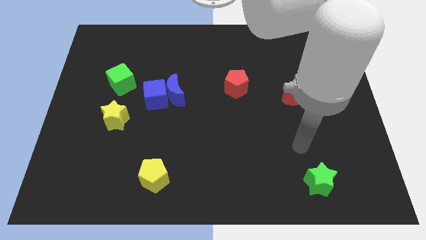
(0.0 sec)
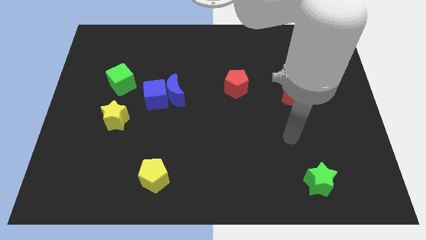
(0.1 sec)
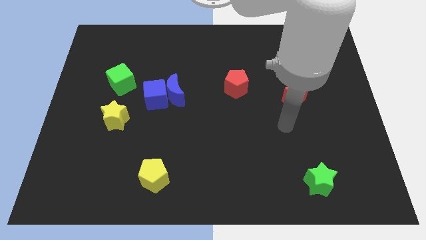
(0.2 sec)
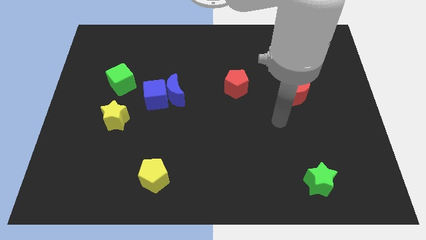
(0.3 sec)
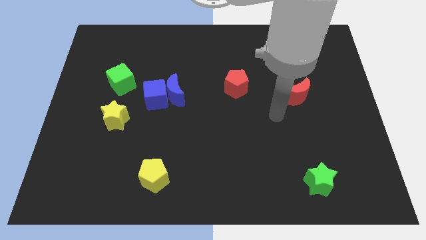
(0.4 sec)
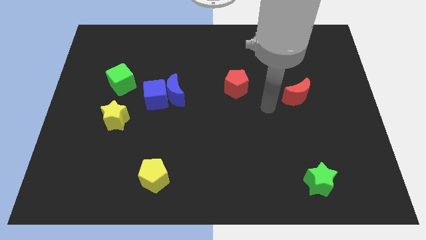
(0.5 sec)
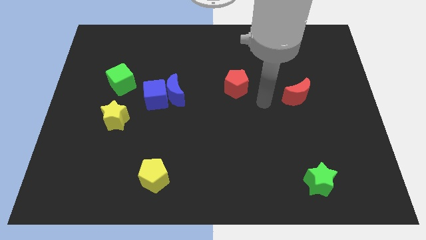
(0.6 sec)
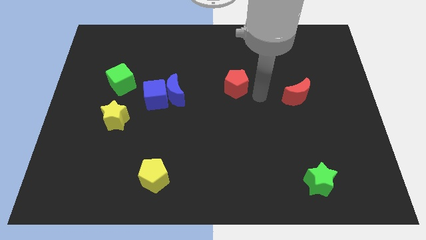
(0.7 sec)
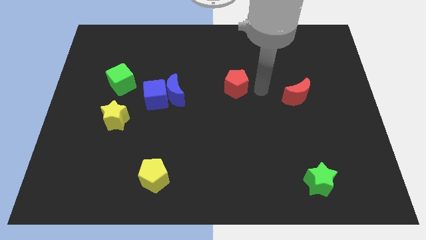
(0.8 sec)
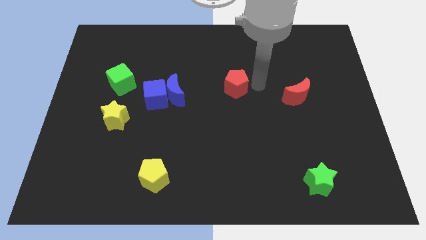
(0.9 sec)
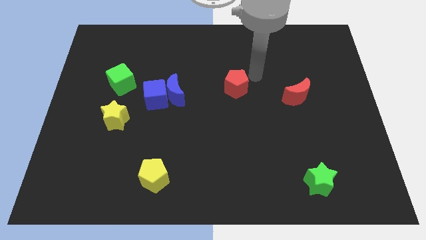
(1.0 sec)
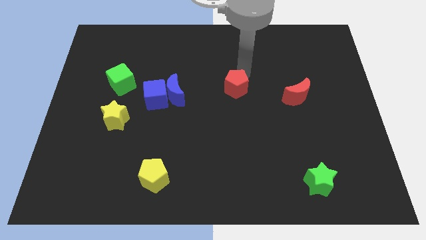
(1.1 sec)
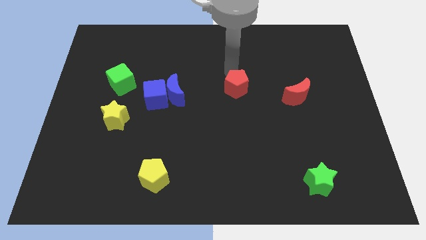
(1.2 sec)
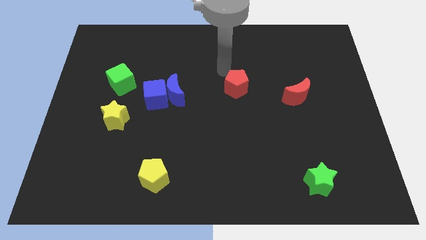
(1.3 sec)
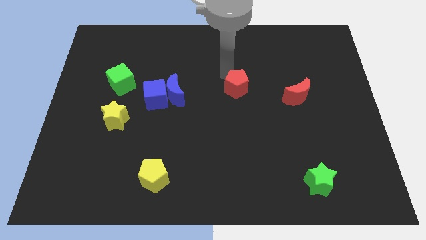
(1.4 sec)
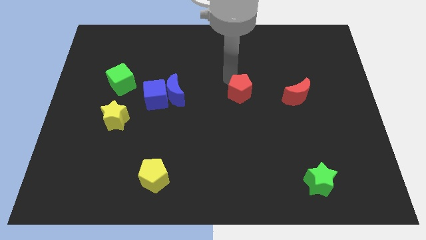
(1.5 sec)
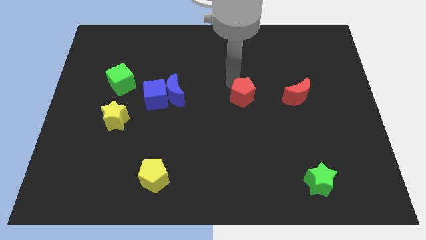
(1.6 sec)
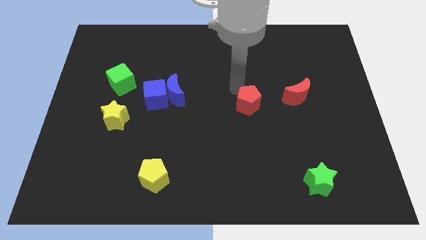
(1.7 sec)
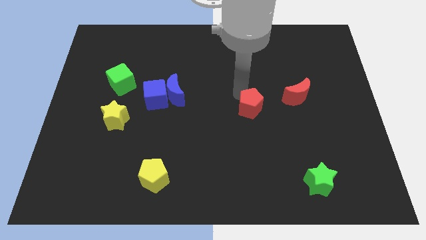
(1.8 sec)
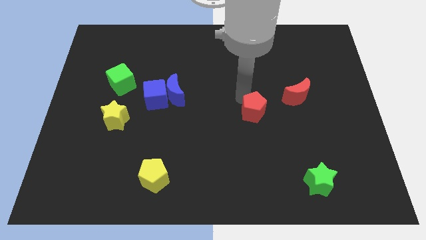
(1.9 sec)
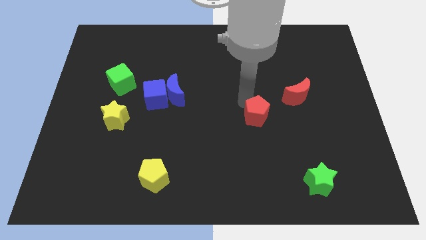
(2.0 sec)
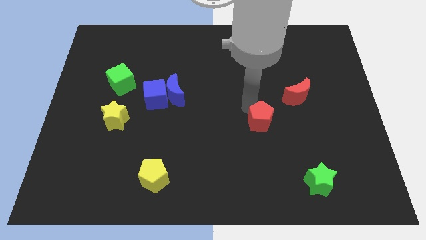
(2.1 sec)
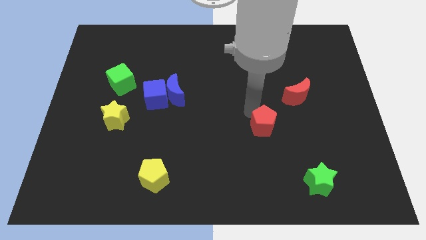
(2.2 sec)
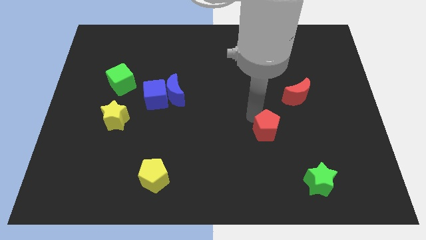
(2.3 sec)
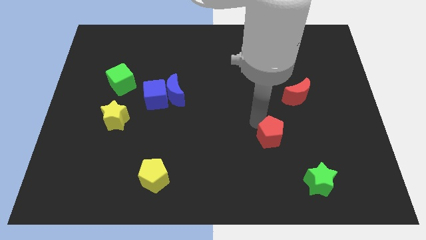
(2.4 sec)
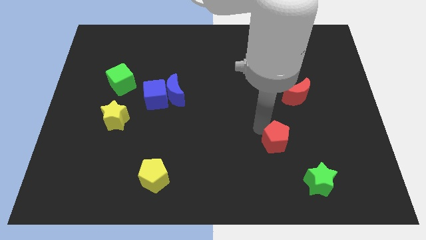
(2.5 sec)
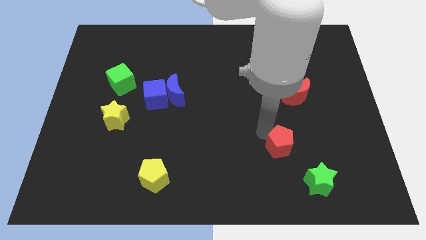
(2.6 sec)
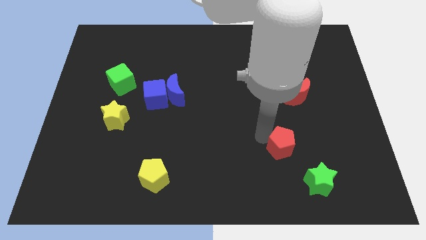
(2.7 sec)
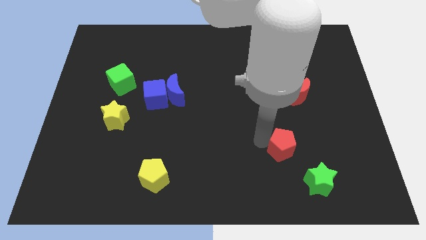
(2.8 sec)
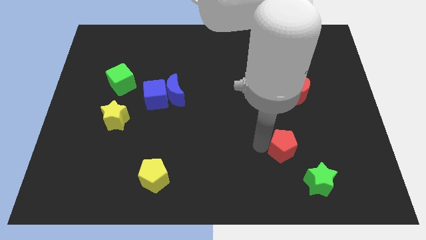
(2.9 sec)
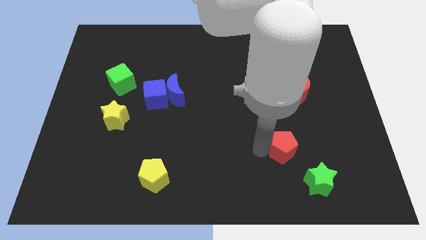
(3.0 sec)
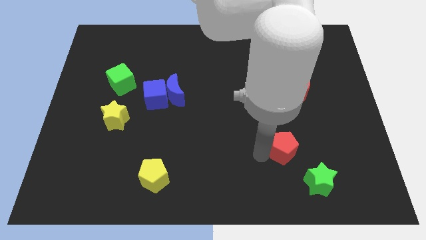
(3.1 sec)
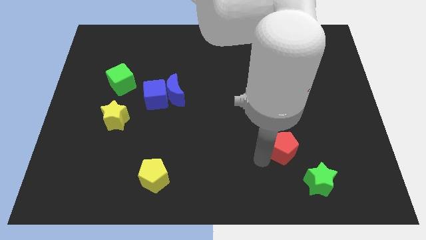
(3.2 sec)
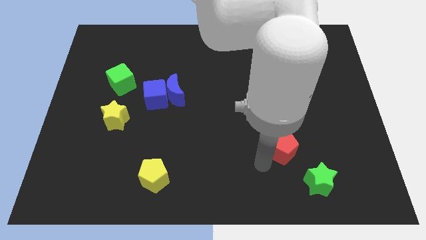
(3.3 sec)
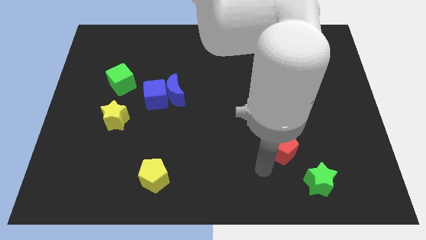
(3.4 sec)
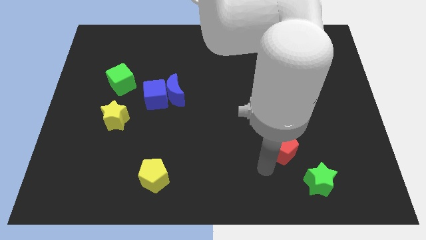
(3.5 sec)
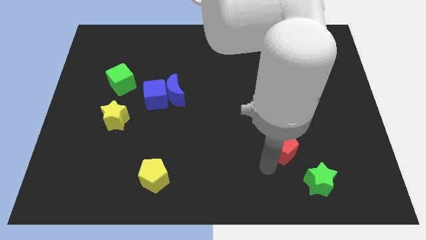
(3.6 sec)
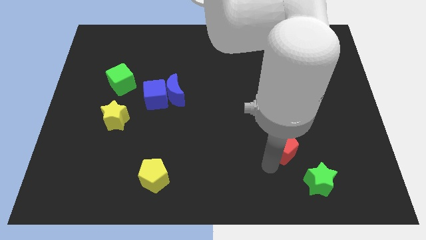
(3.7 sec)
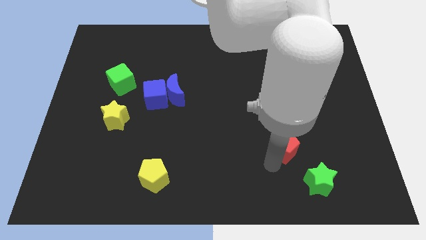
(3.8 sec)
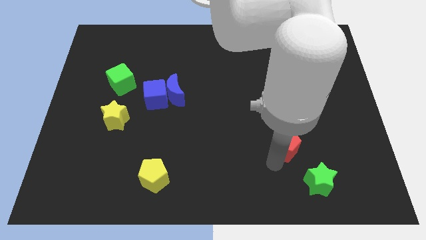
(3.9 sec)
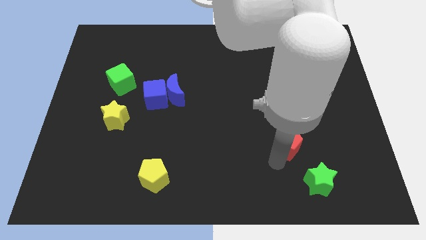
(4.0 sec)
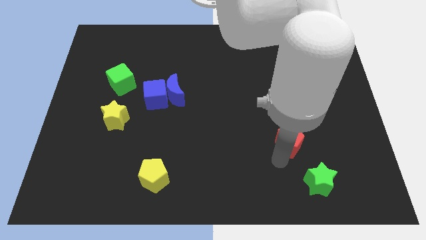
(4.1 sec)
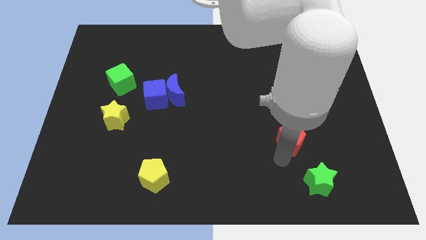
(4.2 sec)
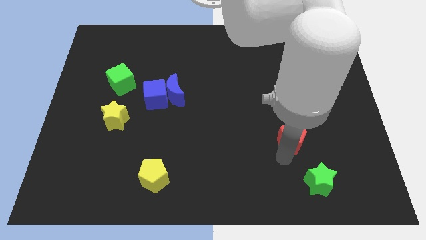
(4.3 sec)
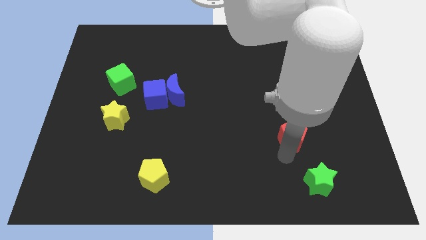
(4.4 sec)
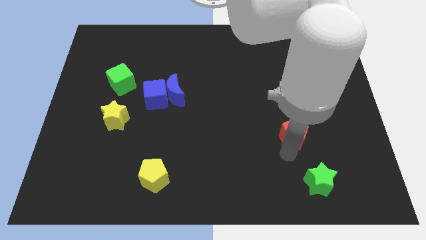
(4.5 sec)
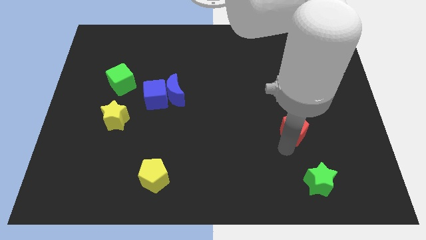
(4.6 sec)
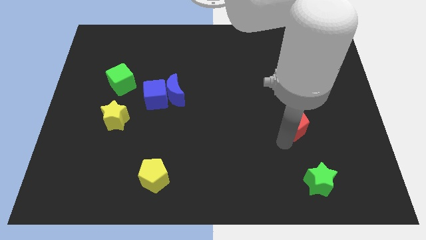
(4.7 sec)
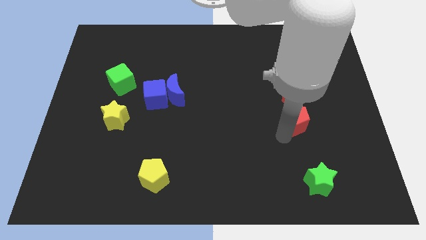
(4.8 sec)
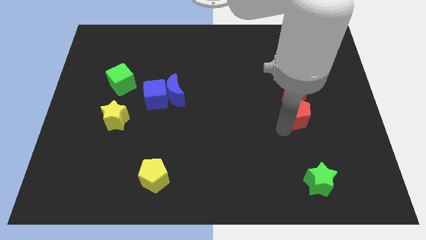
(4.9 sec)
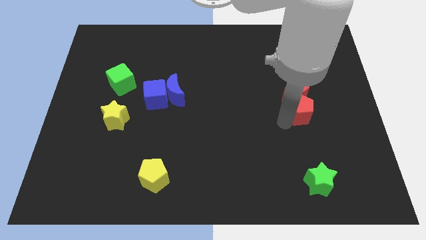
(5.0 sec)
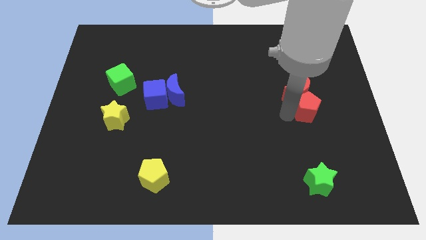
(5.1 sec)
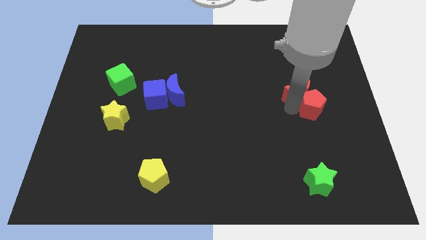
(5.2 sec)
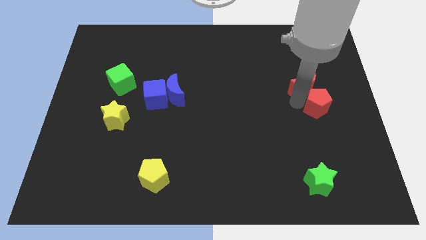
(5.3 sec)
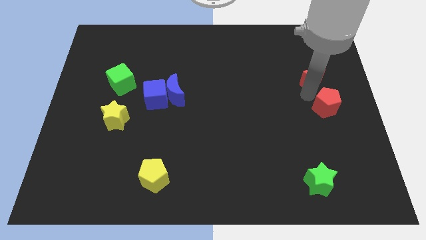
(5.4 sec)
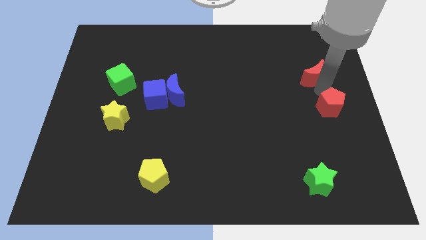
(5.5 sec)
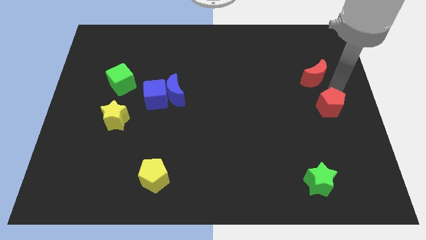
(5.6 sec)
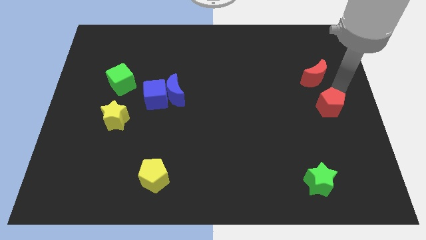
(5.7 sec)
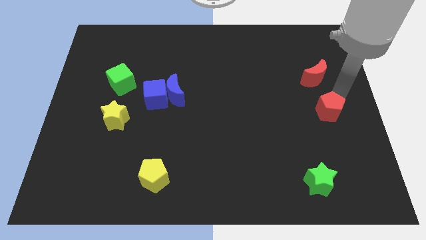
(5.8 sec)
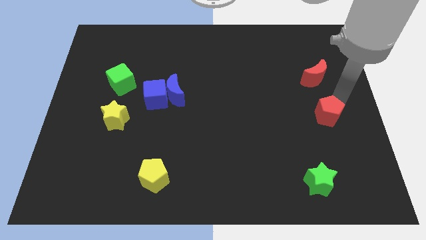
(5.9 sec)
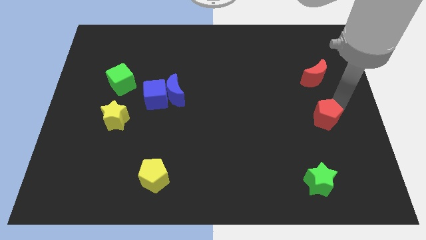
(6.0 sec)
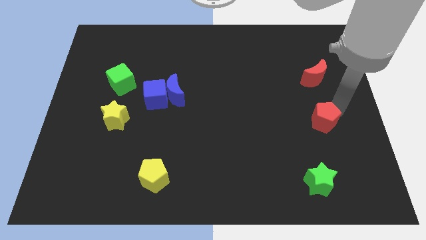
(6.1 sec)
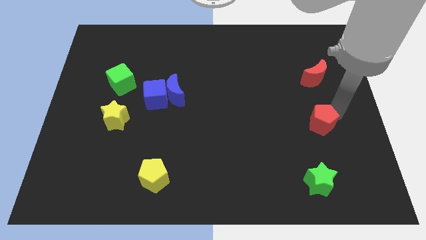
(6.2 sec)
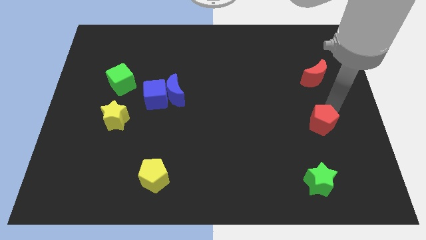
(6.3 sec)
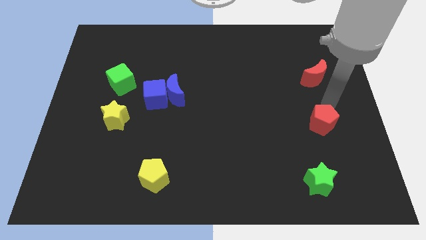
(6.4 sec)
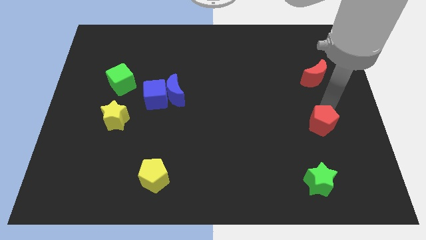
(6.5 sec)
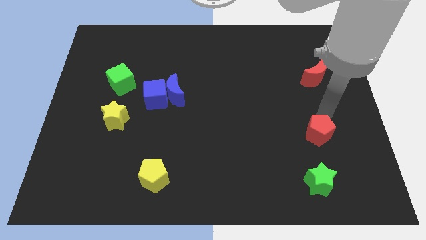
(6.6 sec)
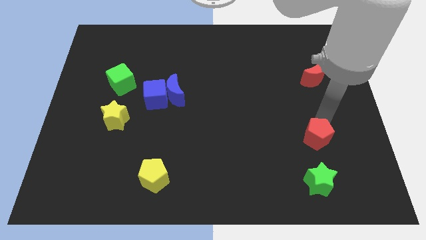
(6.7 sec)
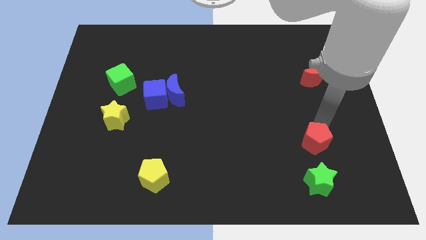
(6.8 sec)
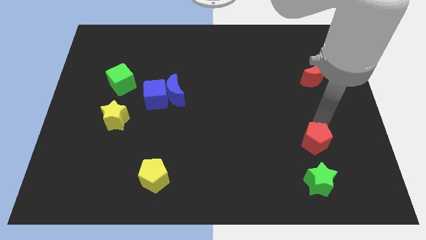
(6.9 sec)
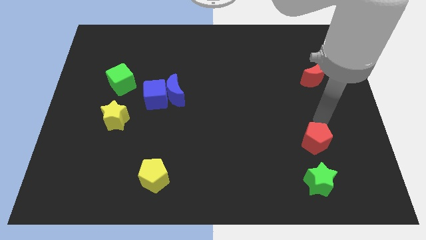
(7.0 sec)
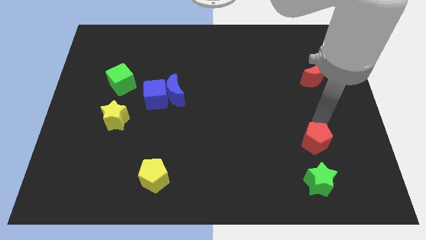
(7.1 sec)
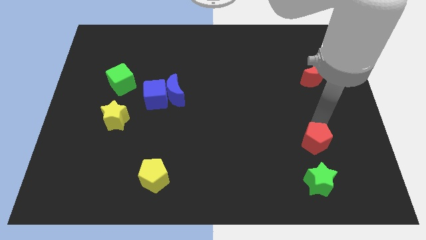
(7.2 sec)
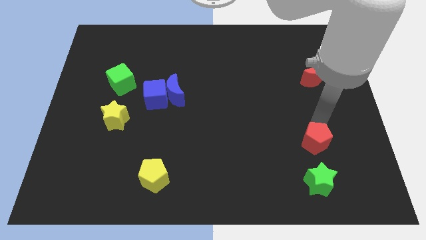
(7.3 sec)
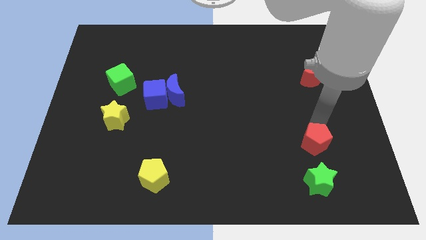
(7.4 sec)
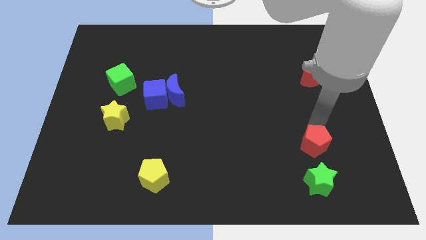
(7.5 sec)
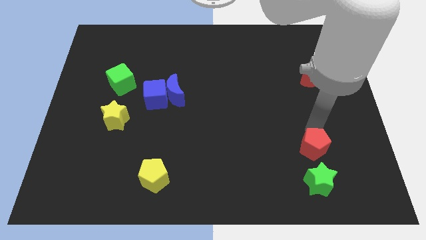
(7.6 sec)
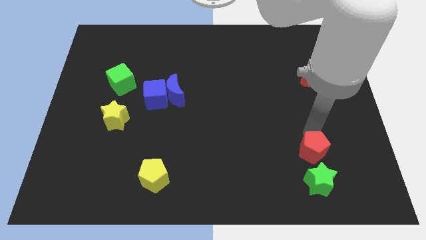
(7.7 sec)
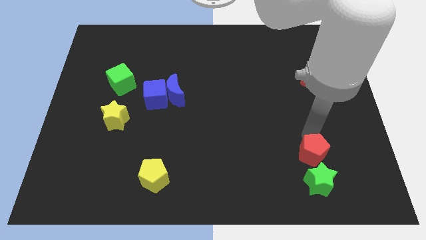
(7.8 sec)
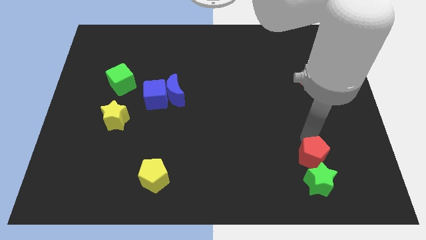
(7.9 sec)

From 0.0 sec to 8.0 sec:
move the red pentagon towards the green star

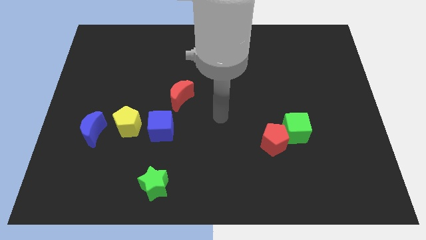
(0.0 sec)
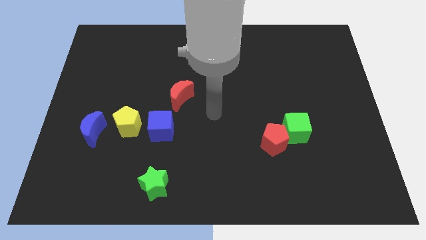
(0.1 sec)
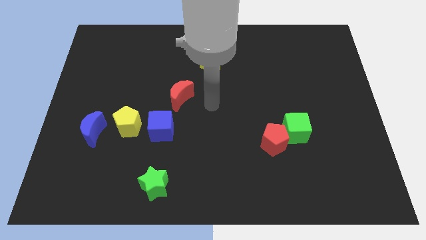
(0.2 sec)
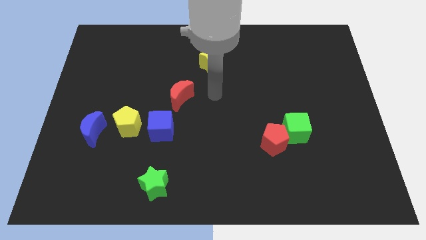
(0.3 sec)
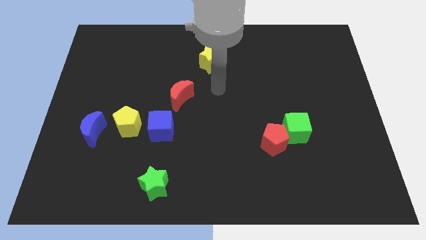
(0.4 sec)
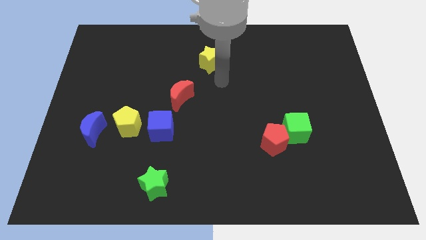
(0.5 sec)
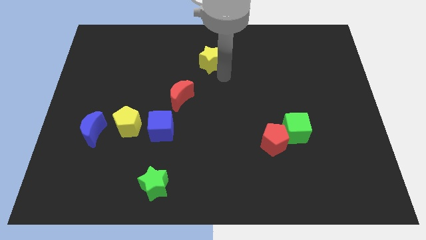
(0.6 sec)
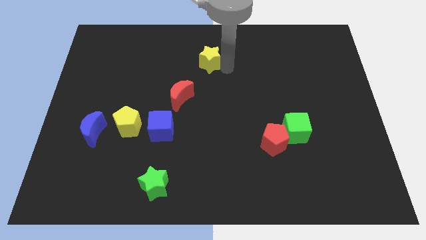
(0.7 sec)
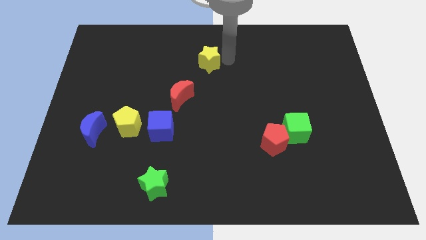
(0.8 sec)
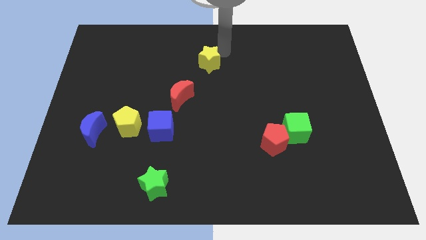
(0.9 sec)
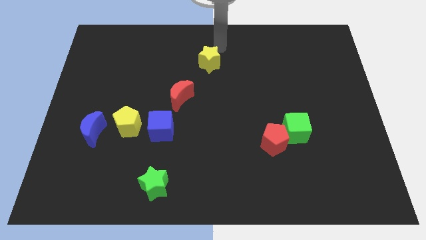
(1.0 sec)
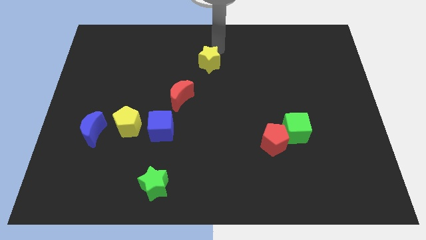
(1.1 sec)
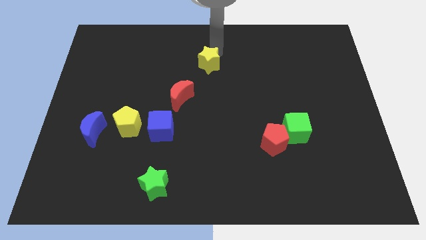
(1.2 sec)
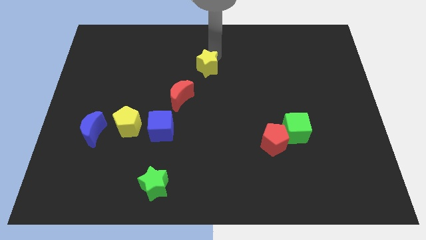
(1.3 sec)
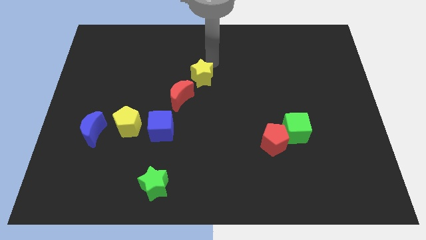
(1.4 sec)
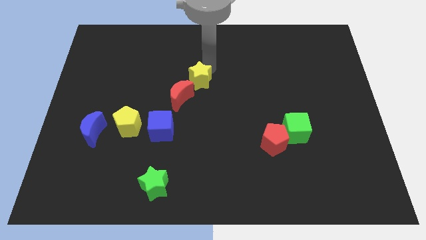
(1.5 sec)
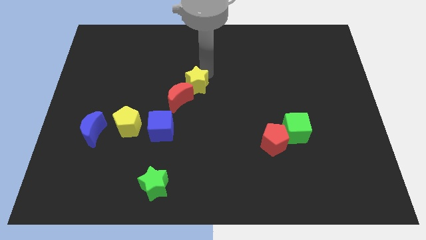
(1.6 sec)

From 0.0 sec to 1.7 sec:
push the yellow star to the red moon
